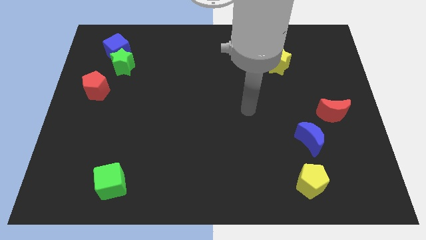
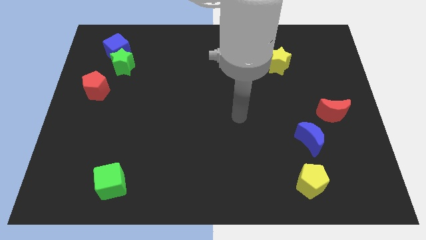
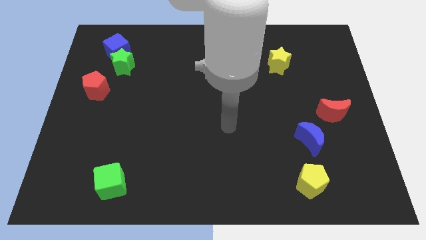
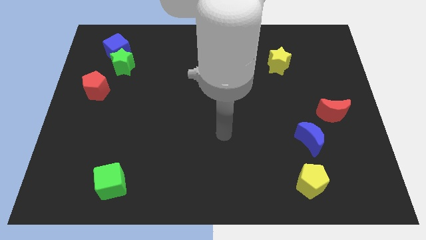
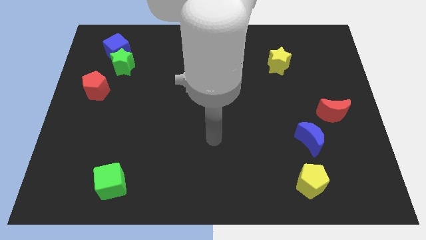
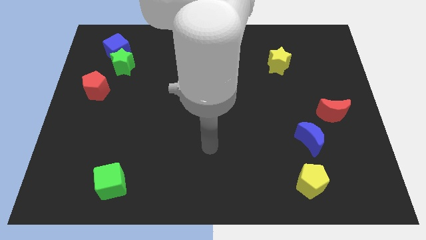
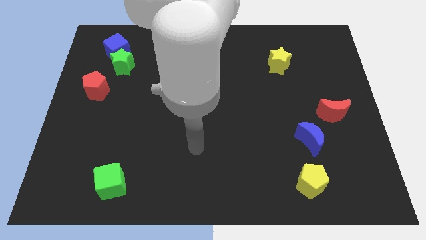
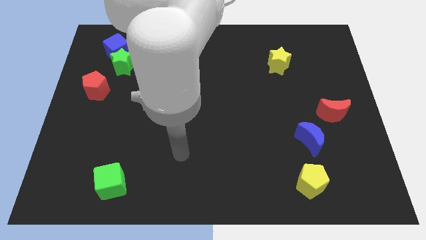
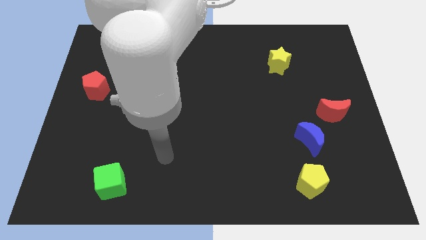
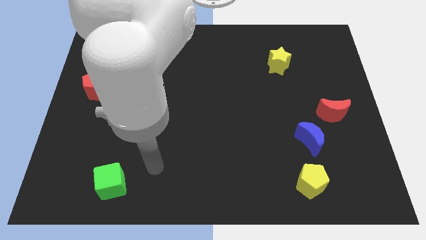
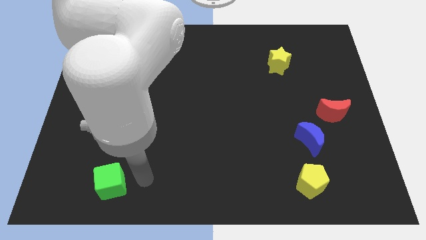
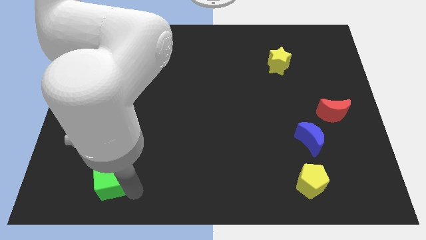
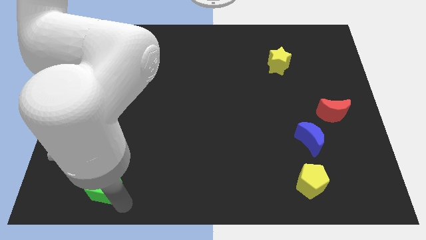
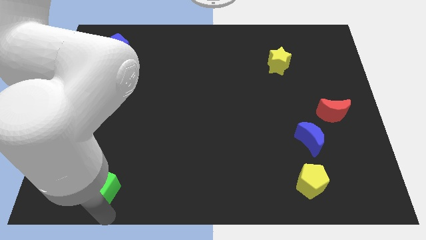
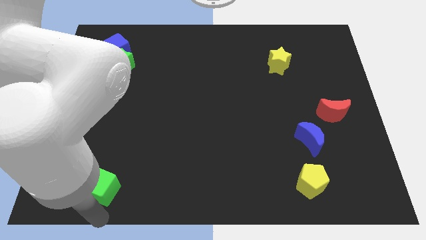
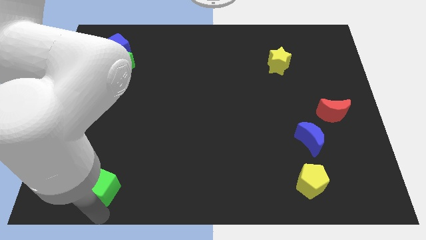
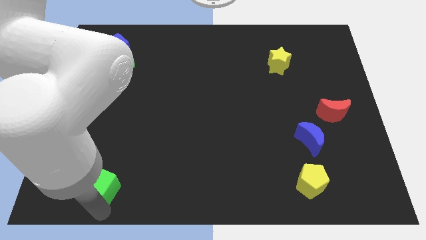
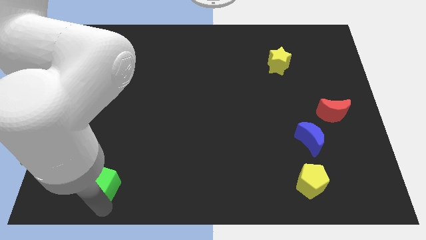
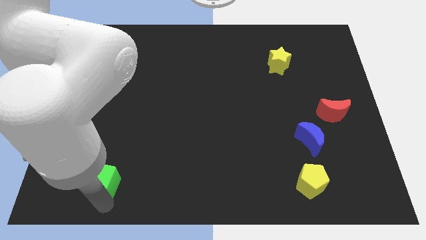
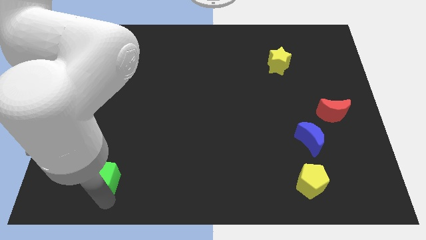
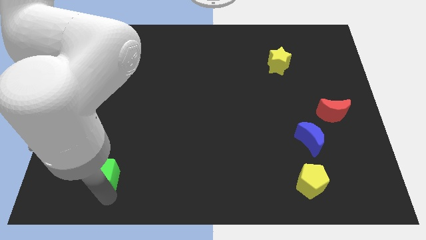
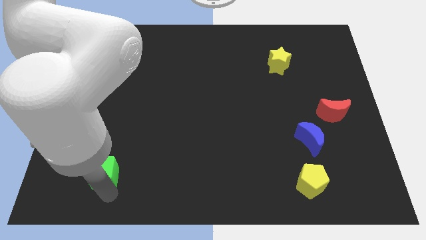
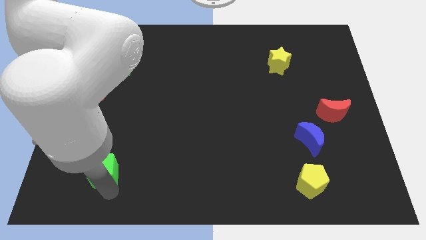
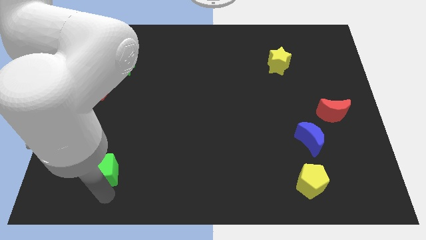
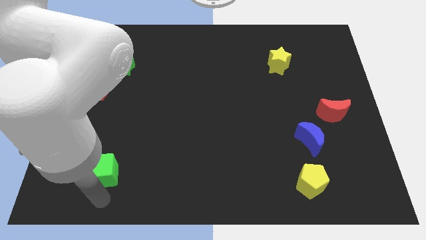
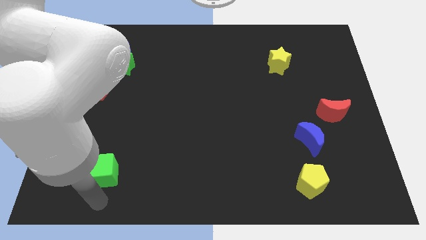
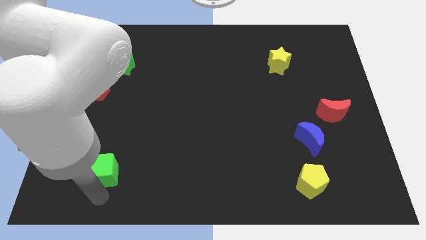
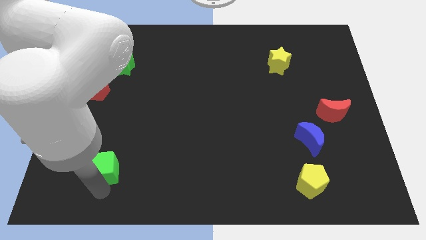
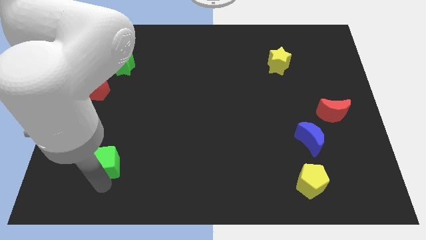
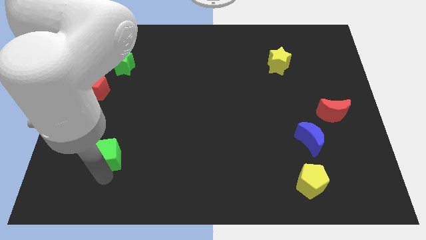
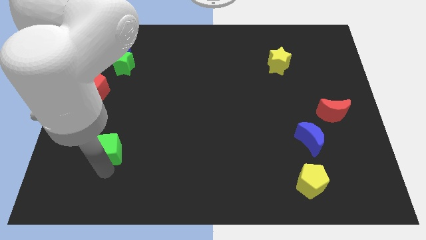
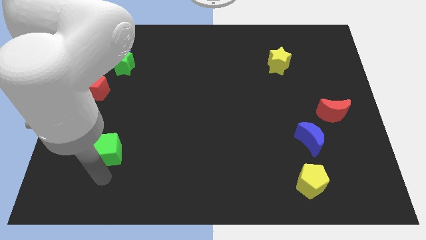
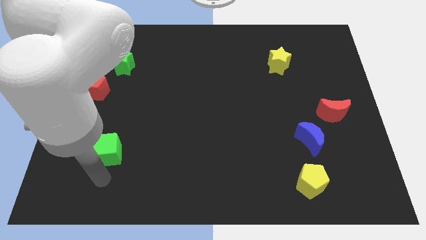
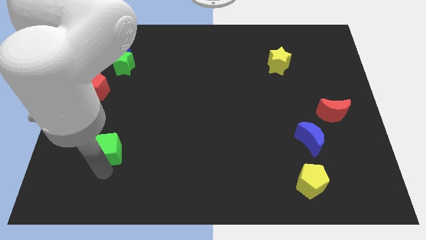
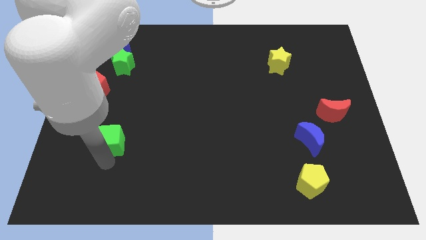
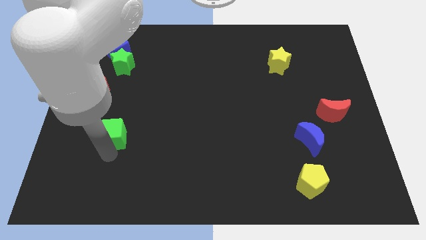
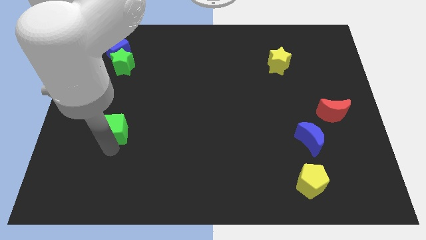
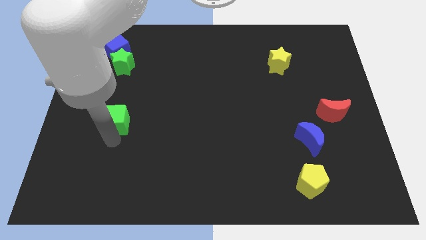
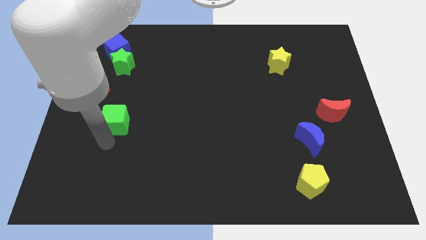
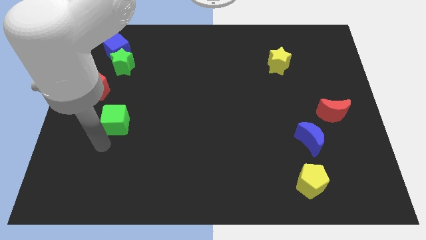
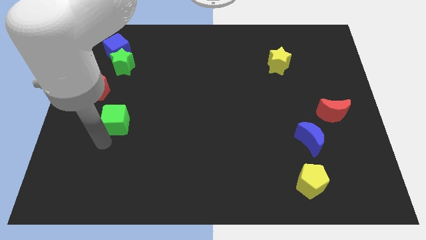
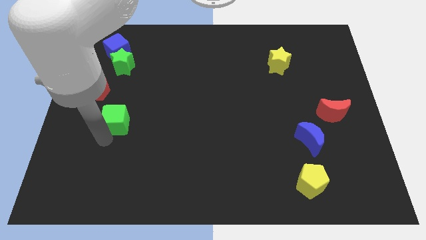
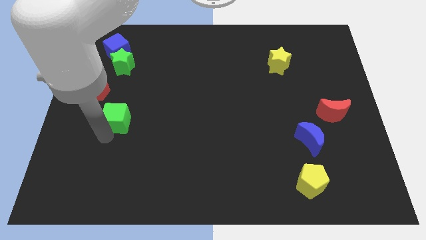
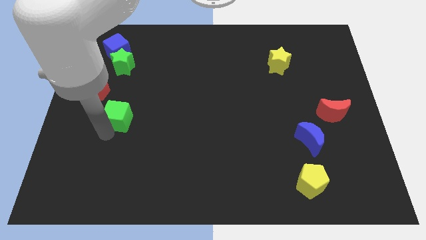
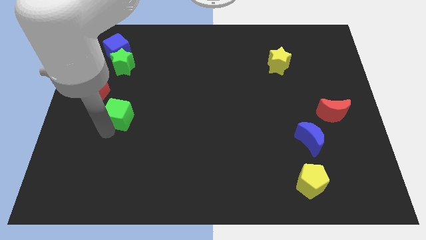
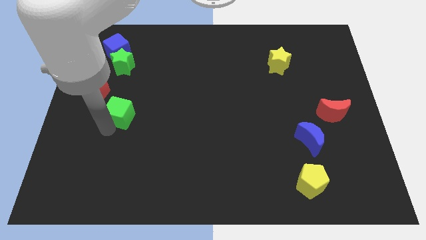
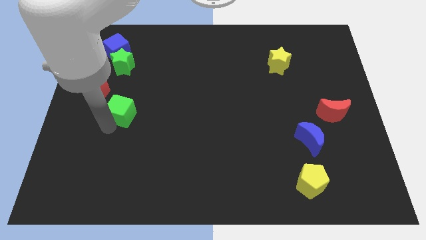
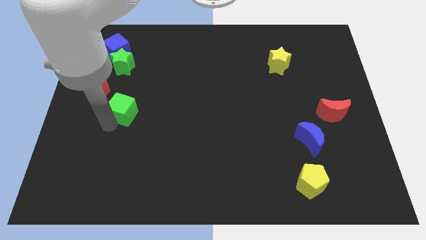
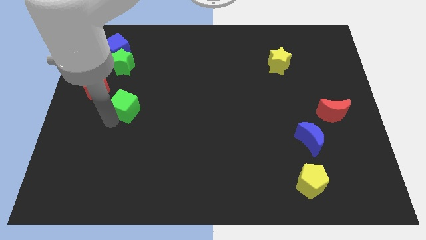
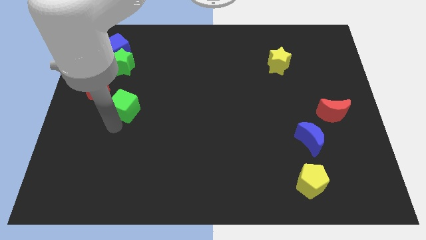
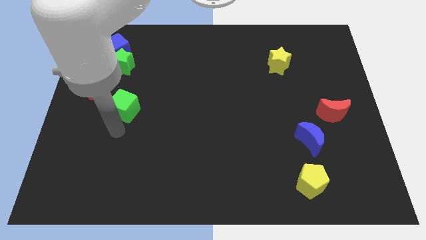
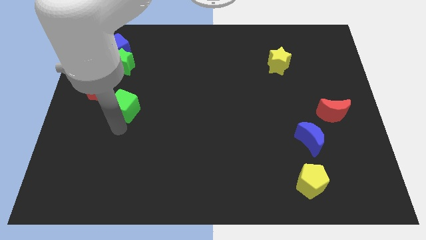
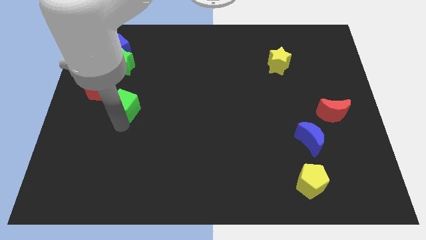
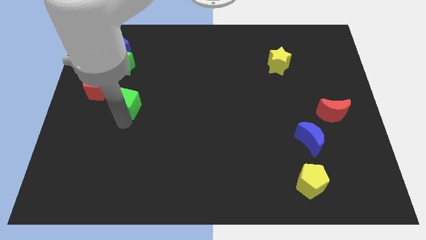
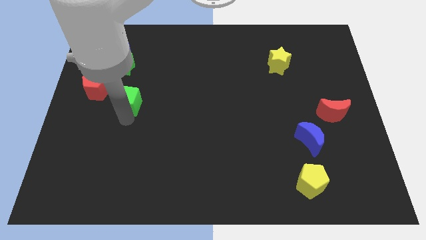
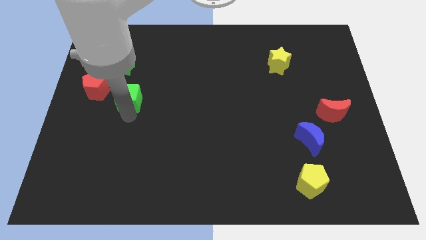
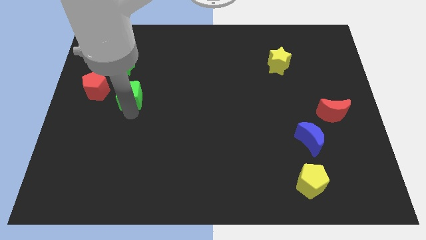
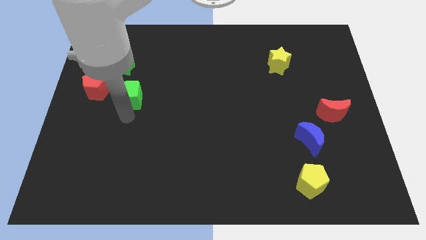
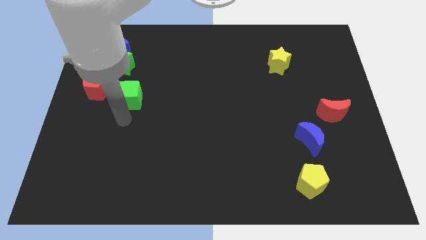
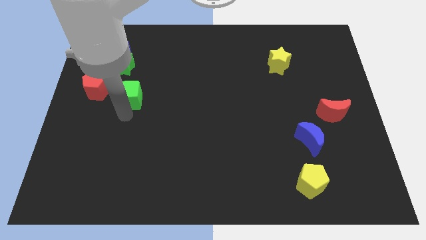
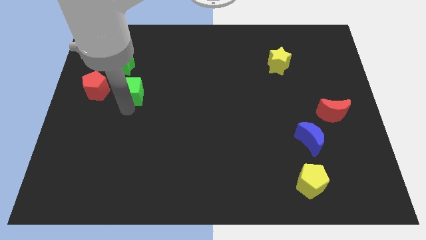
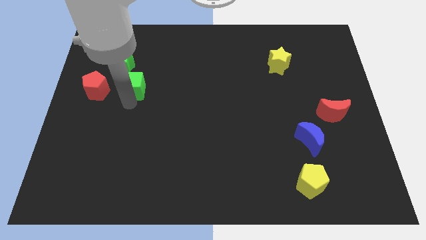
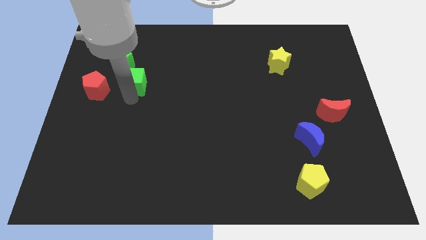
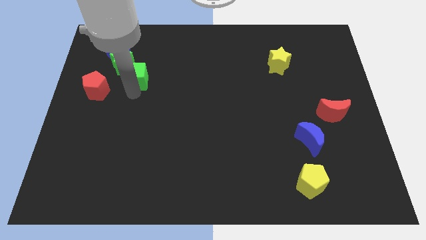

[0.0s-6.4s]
slide the green cube to the bottom right of the blue cube

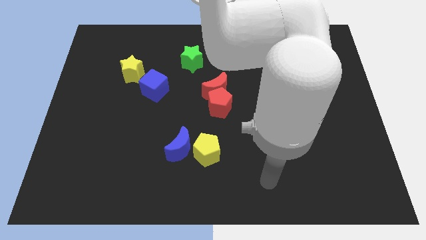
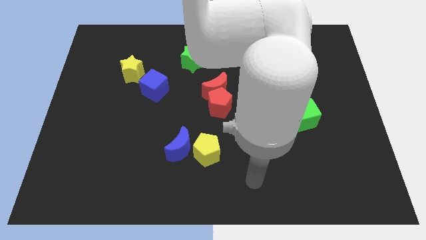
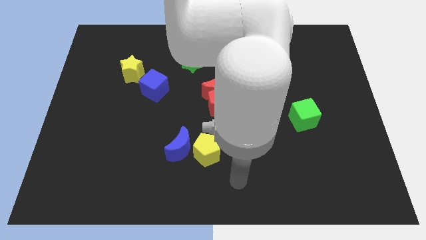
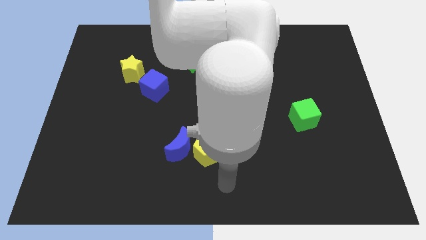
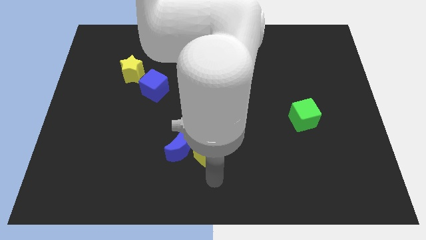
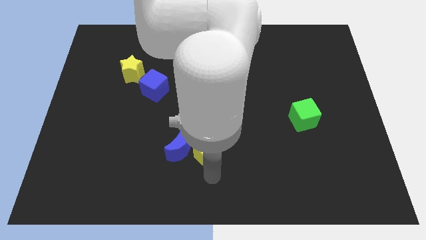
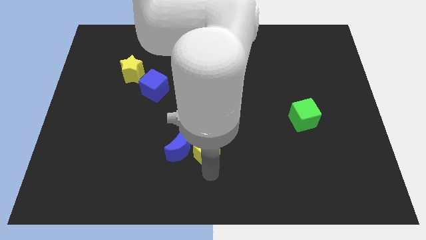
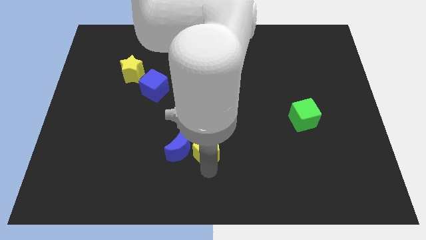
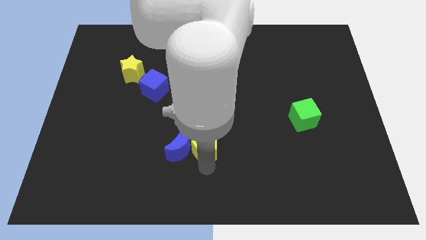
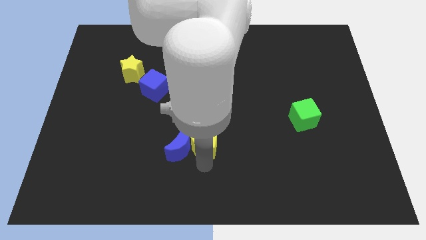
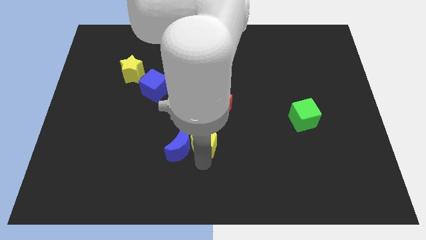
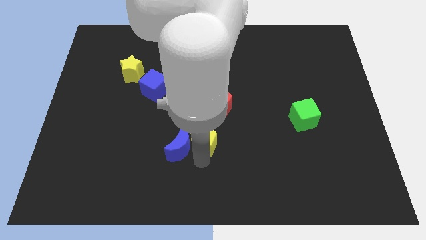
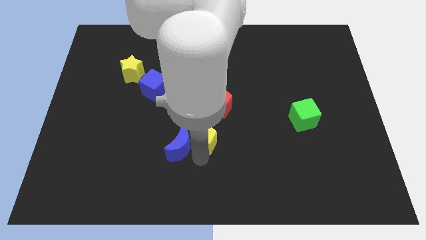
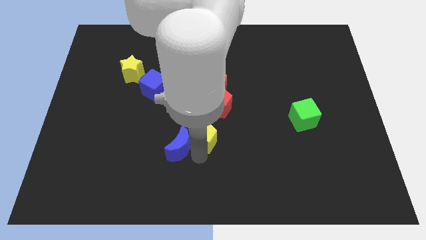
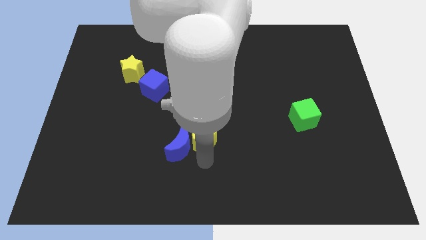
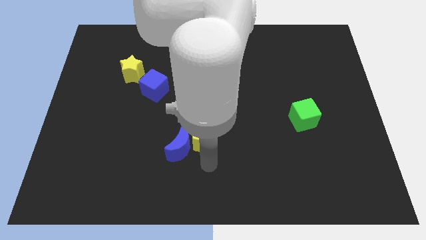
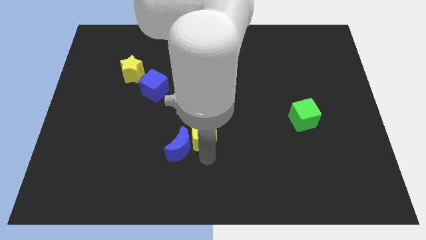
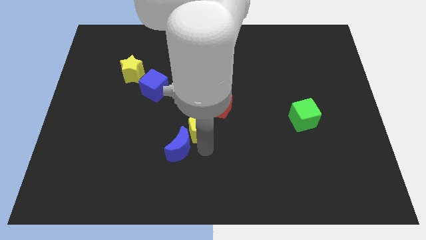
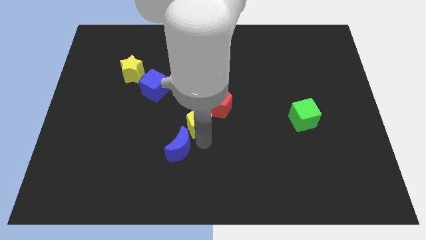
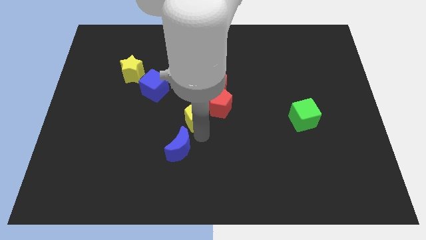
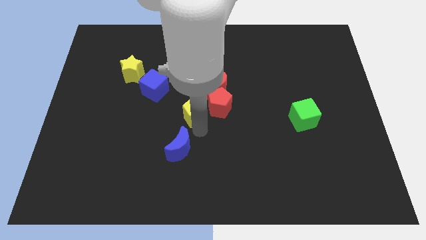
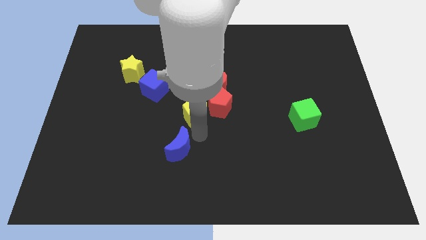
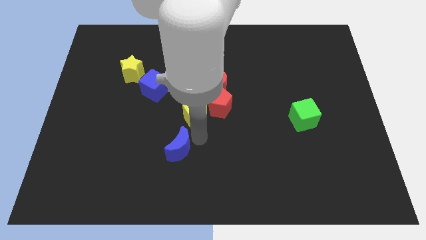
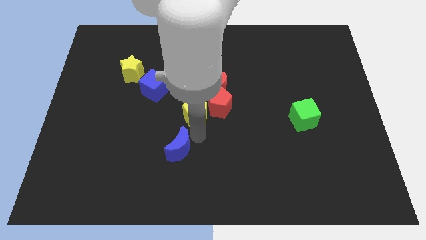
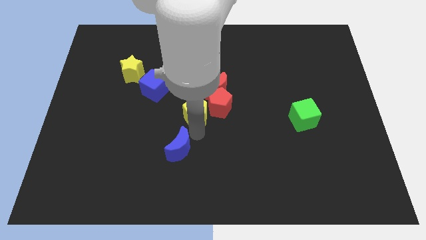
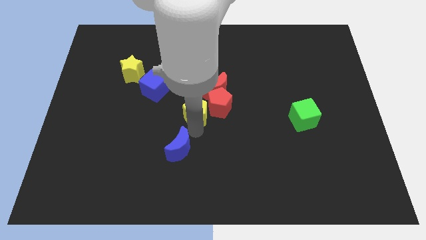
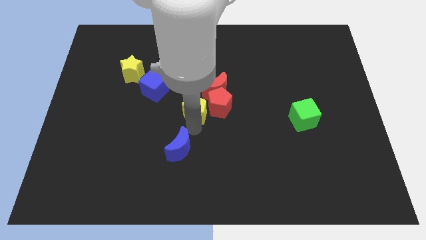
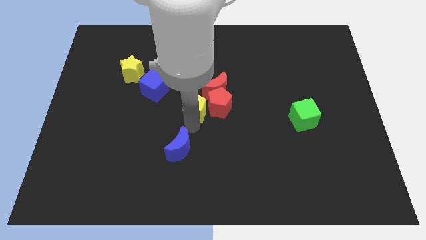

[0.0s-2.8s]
push the yellow pentagon below the green star
